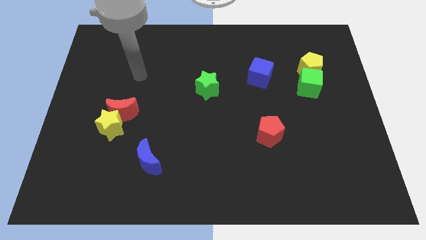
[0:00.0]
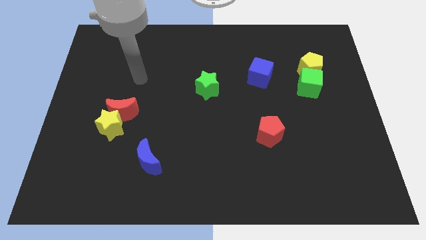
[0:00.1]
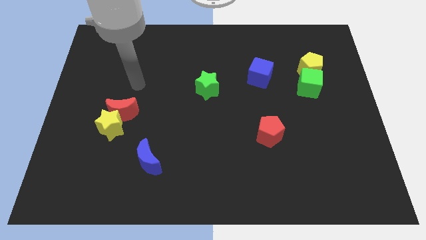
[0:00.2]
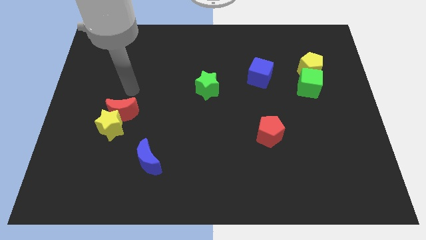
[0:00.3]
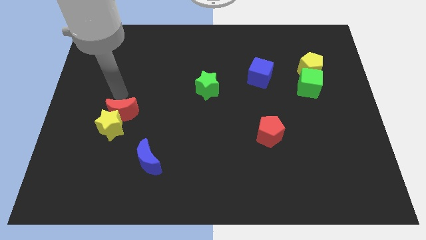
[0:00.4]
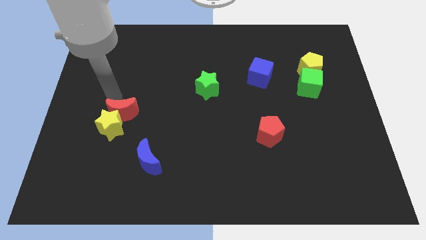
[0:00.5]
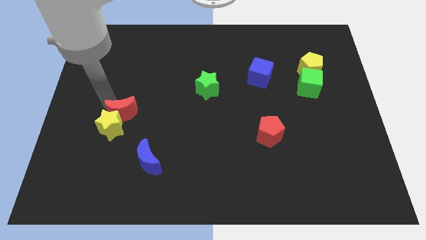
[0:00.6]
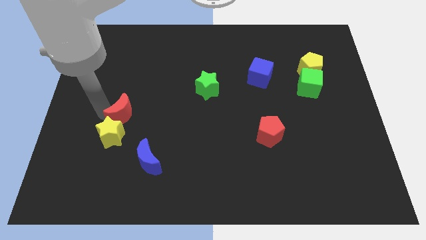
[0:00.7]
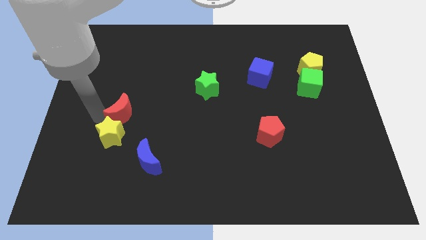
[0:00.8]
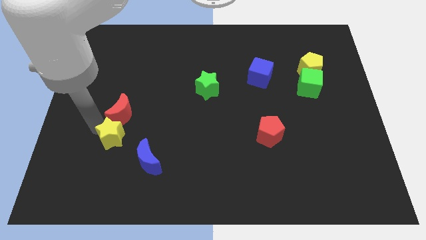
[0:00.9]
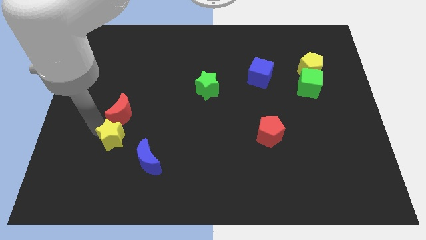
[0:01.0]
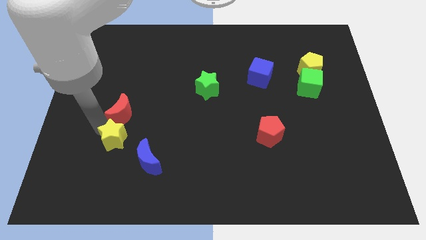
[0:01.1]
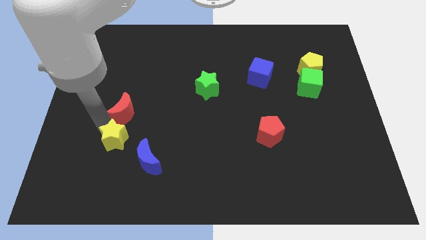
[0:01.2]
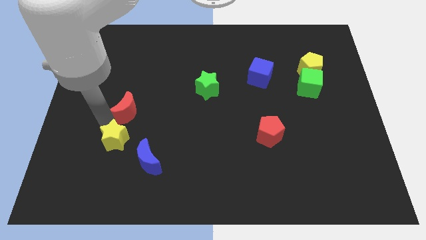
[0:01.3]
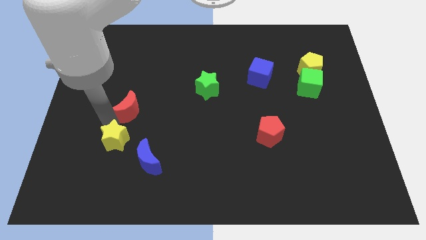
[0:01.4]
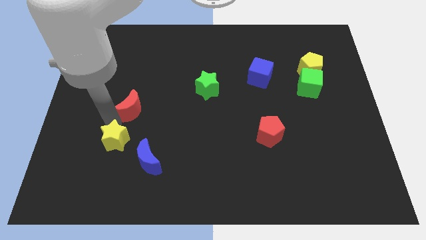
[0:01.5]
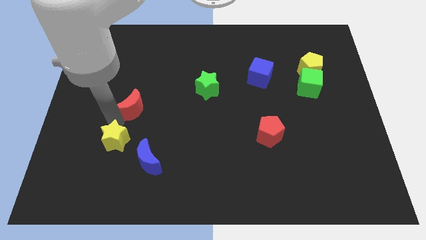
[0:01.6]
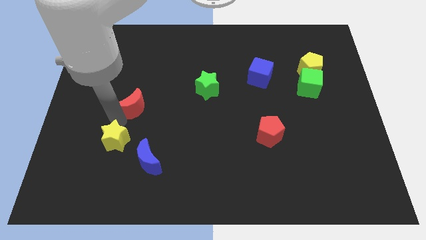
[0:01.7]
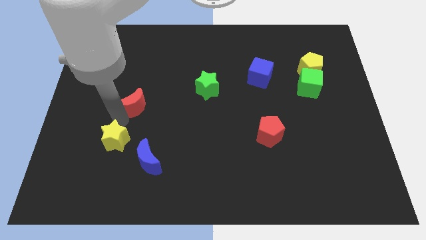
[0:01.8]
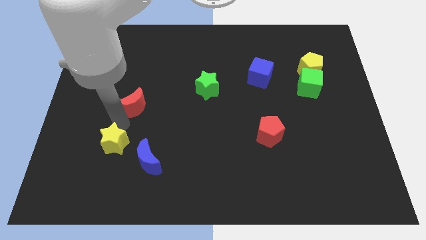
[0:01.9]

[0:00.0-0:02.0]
move the red moon away from the yellow star

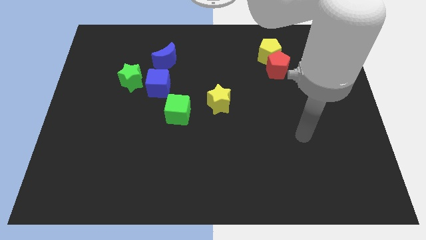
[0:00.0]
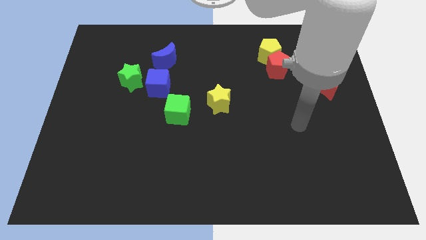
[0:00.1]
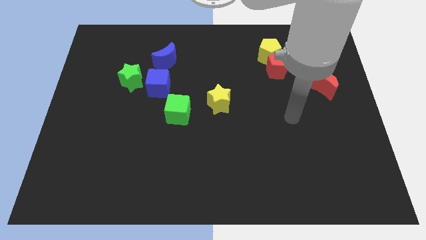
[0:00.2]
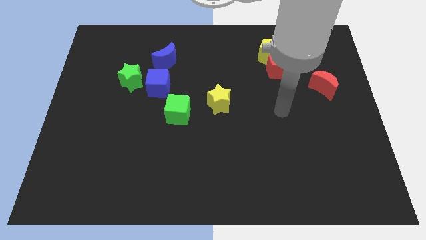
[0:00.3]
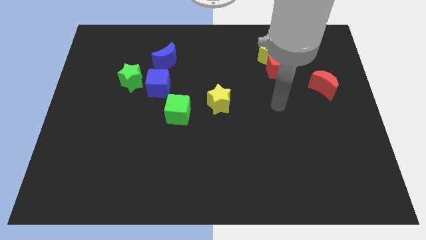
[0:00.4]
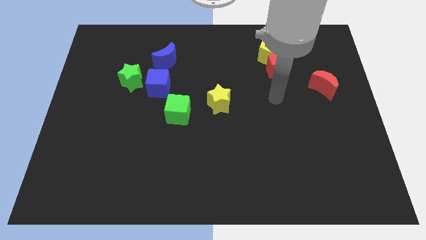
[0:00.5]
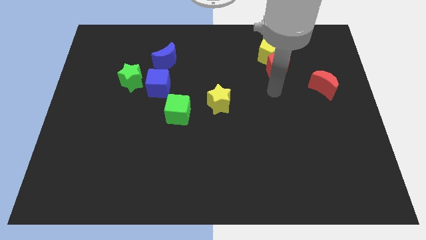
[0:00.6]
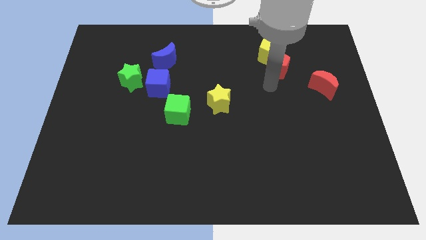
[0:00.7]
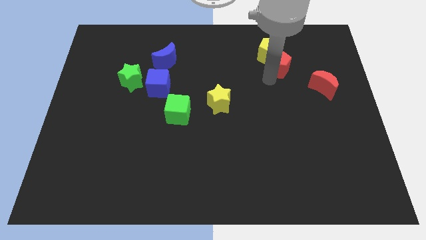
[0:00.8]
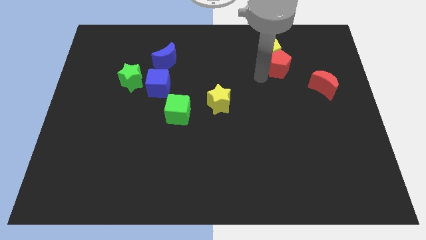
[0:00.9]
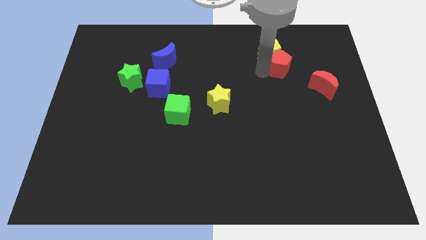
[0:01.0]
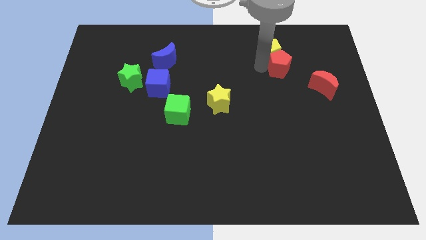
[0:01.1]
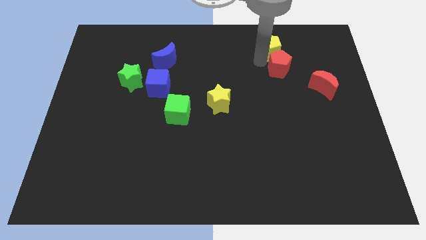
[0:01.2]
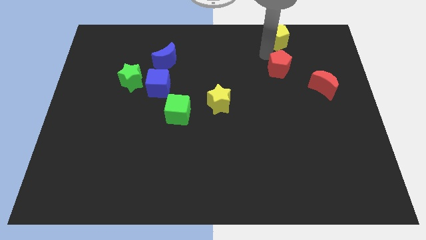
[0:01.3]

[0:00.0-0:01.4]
move the red pentagon away from the yellow pentagon

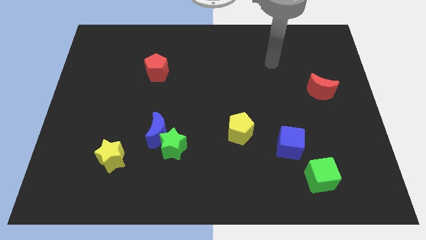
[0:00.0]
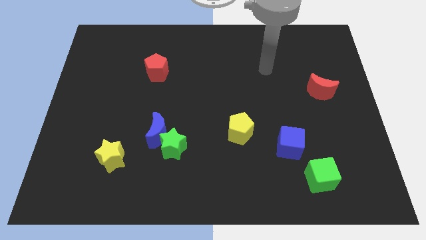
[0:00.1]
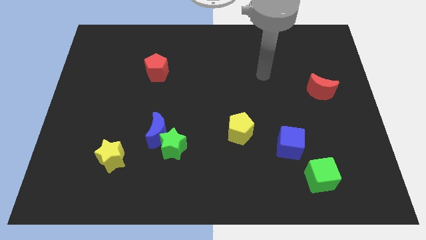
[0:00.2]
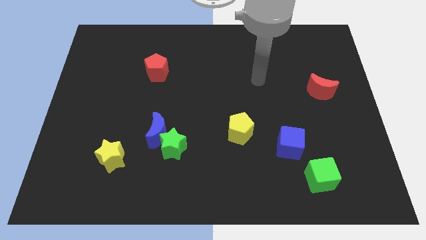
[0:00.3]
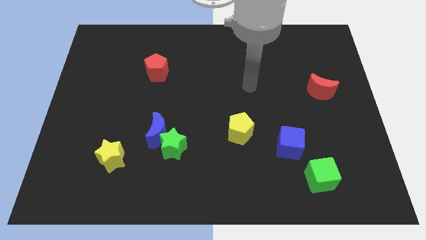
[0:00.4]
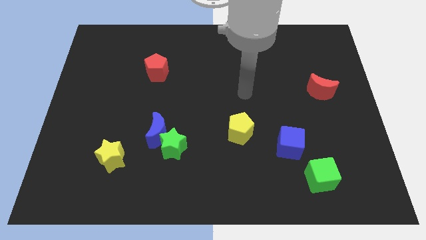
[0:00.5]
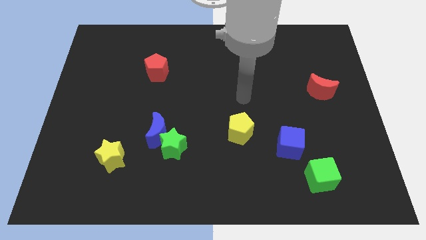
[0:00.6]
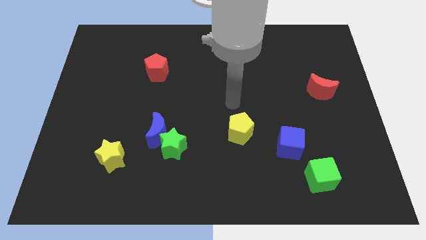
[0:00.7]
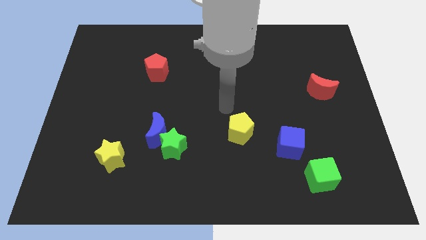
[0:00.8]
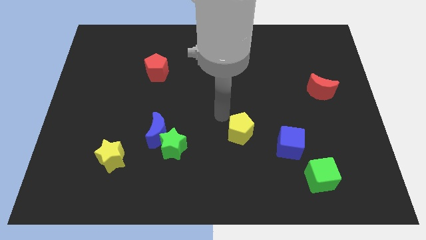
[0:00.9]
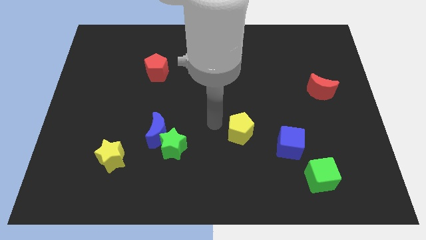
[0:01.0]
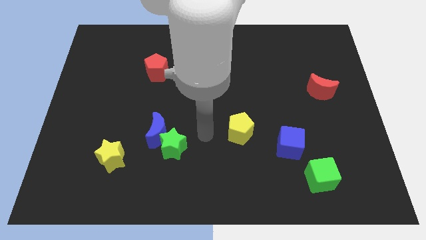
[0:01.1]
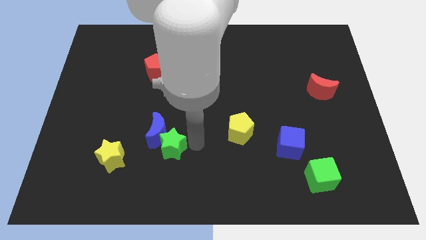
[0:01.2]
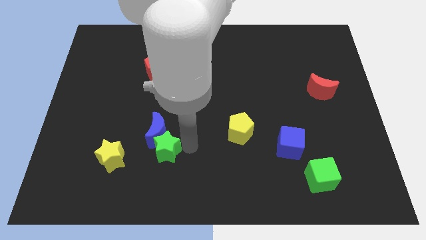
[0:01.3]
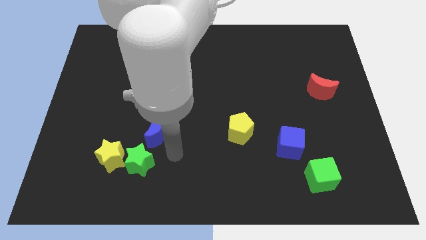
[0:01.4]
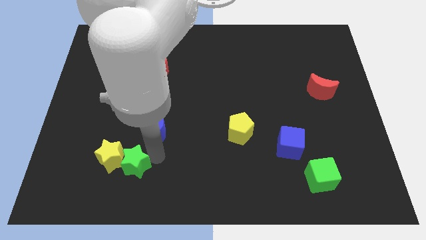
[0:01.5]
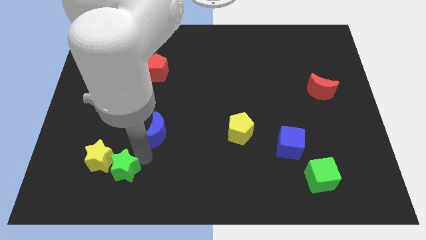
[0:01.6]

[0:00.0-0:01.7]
separate the blue moon from the green star

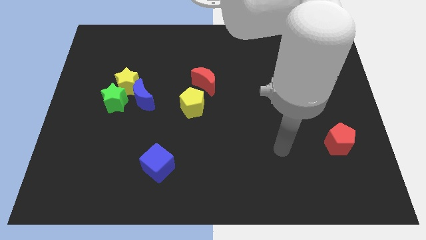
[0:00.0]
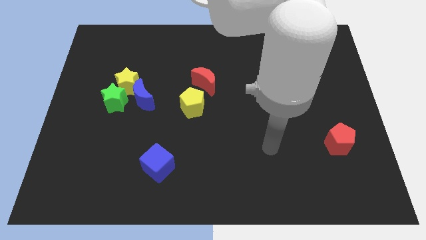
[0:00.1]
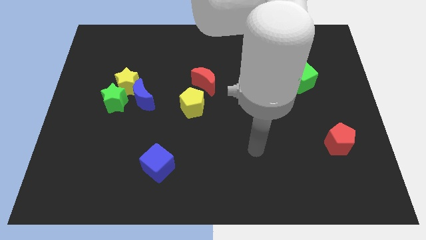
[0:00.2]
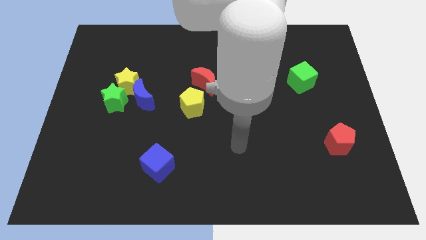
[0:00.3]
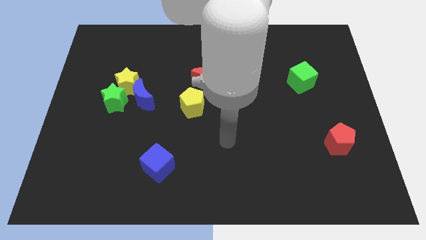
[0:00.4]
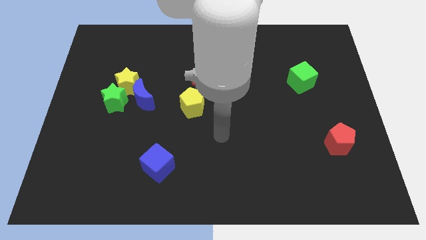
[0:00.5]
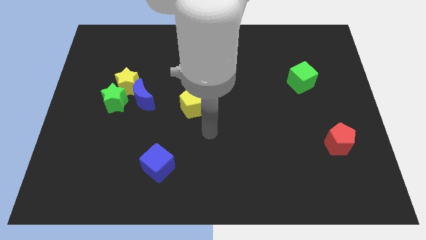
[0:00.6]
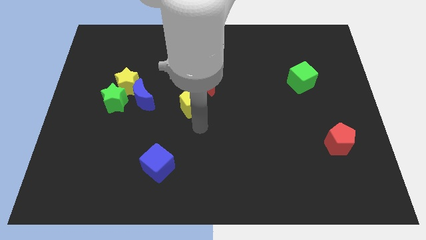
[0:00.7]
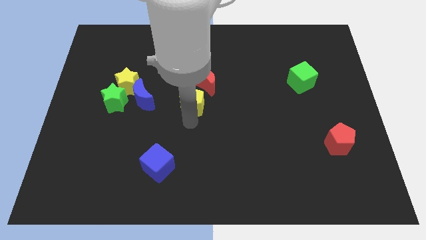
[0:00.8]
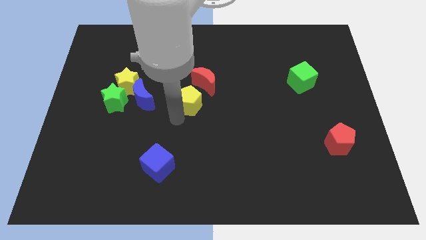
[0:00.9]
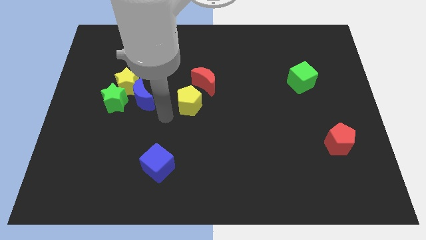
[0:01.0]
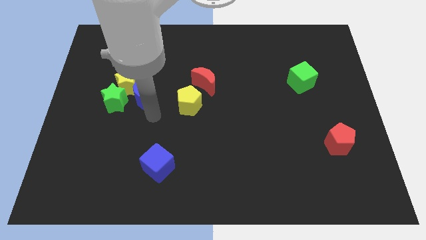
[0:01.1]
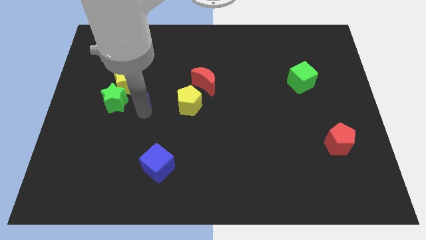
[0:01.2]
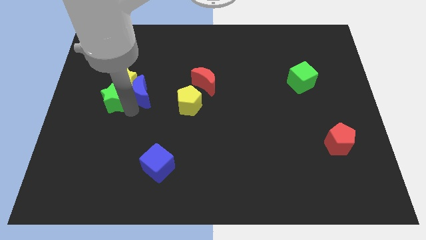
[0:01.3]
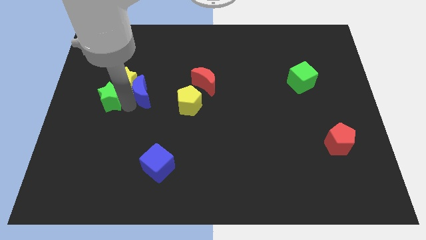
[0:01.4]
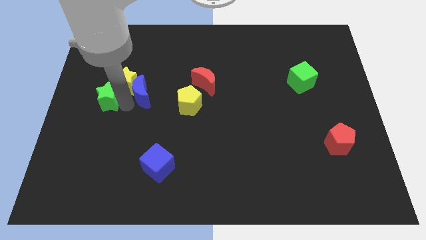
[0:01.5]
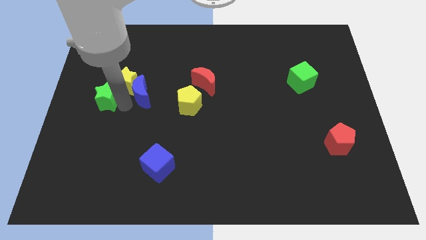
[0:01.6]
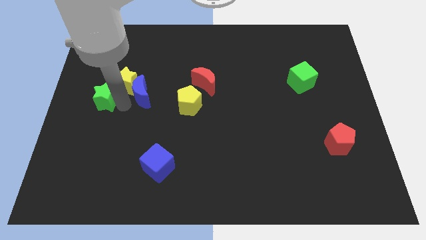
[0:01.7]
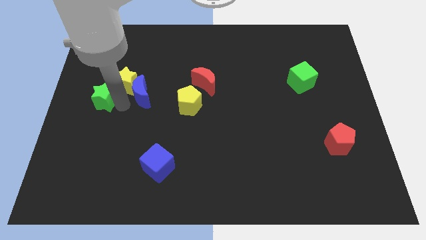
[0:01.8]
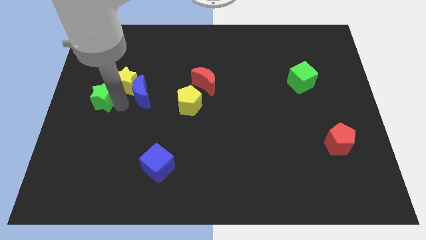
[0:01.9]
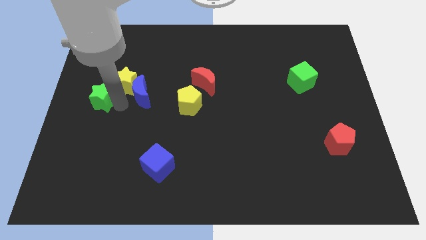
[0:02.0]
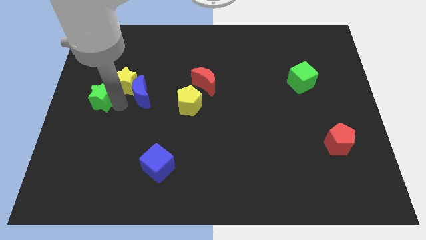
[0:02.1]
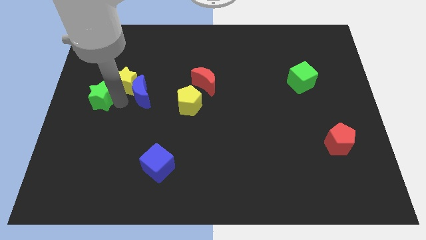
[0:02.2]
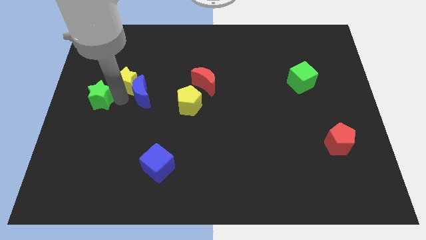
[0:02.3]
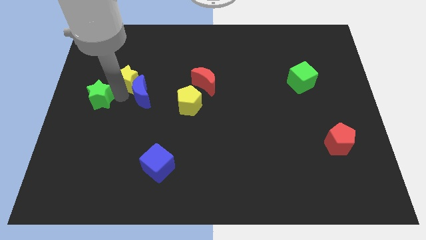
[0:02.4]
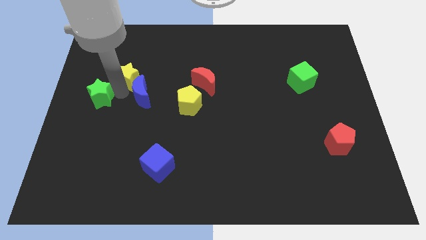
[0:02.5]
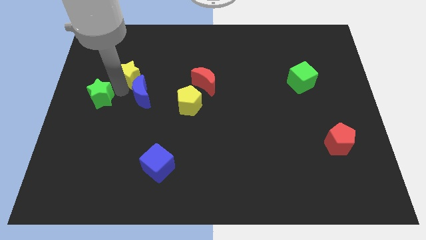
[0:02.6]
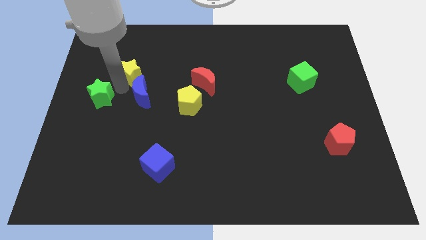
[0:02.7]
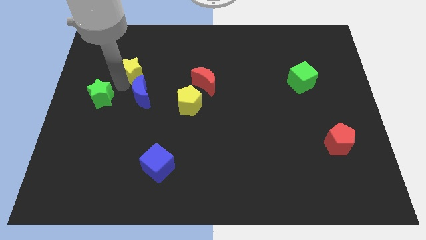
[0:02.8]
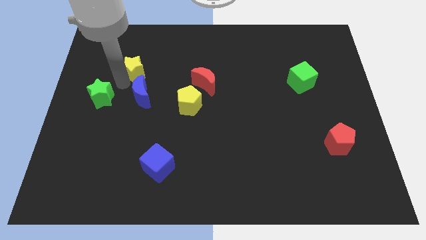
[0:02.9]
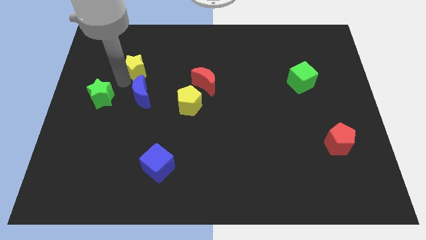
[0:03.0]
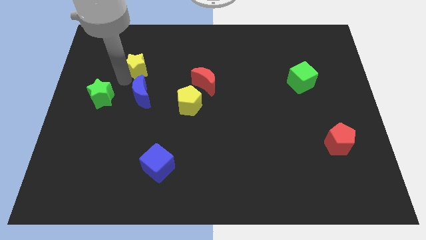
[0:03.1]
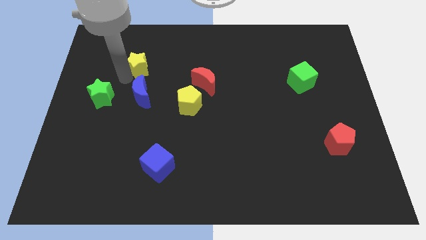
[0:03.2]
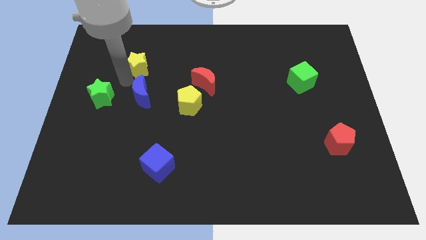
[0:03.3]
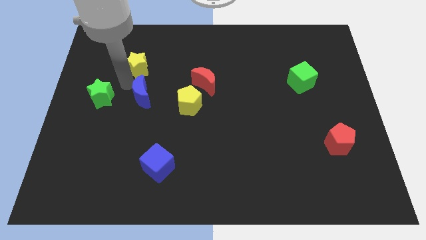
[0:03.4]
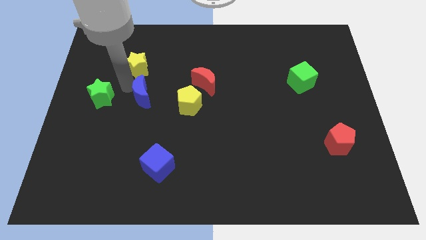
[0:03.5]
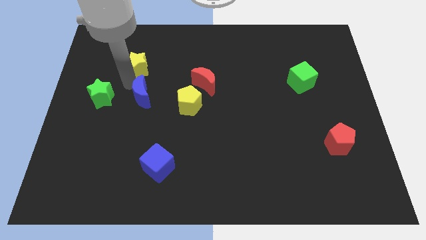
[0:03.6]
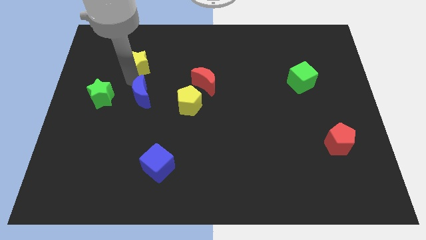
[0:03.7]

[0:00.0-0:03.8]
move the yellow star away from the blue moon and green star

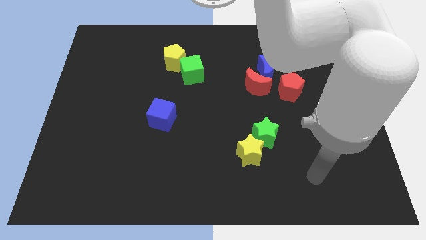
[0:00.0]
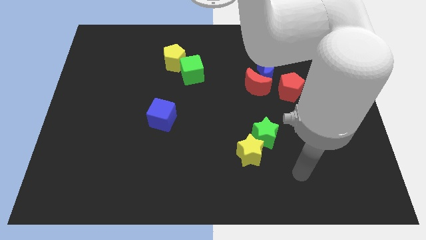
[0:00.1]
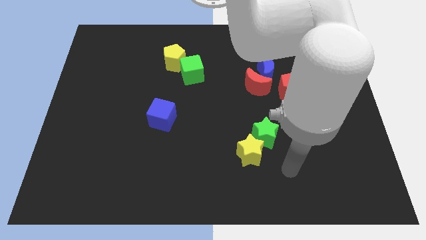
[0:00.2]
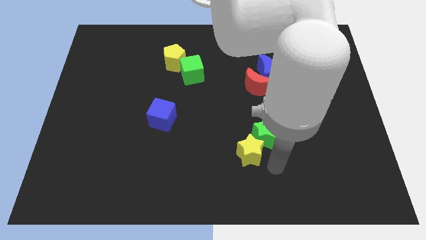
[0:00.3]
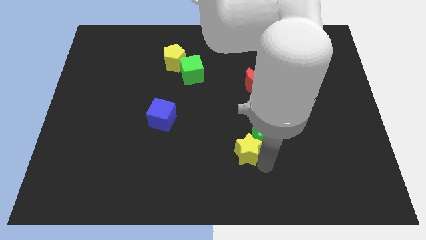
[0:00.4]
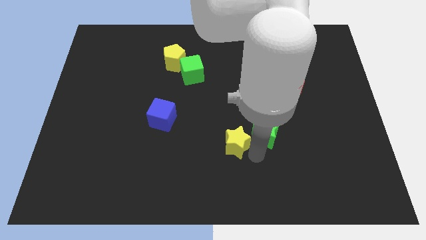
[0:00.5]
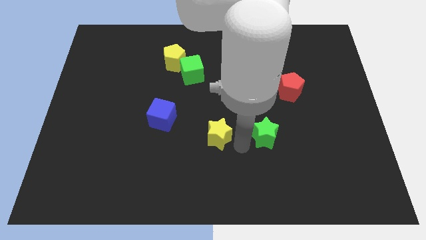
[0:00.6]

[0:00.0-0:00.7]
pull the green star apart from the yellow star
